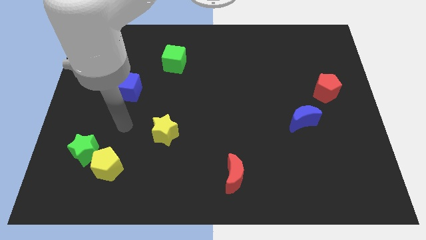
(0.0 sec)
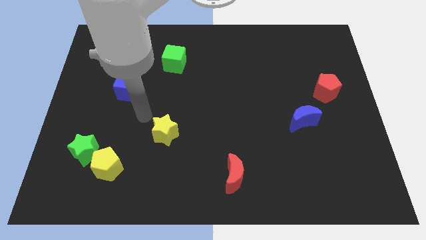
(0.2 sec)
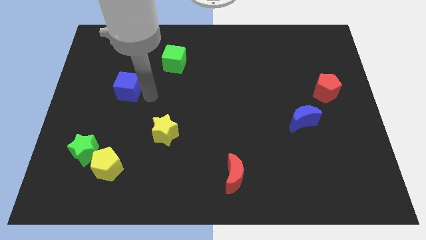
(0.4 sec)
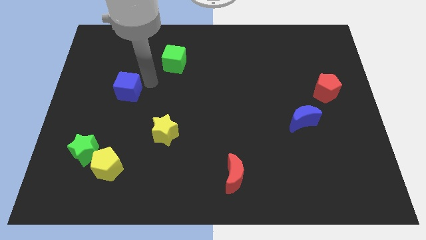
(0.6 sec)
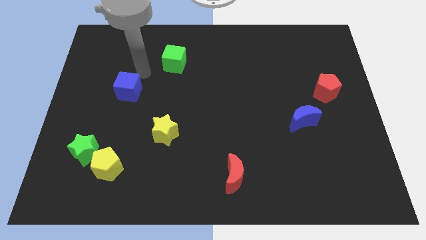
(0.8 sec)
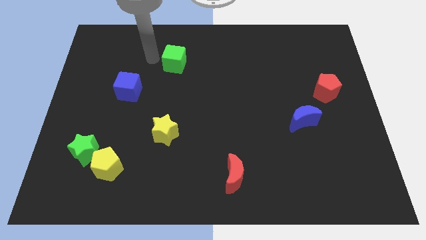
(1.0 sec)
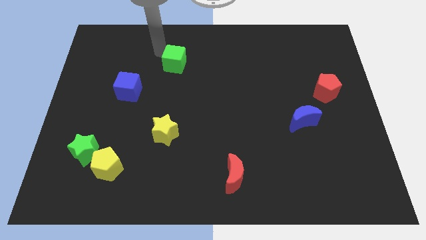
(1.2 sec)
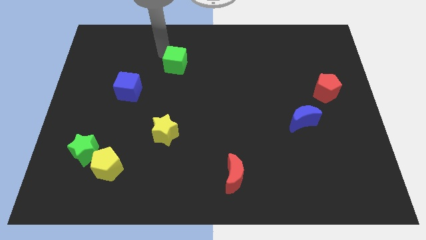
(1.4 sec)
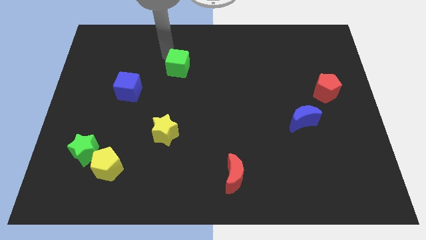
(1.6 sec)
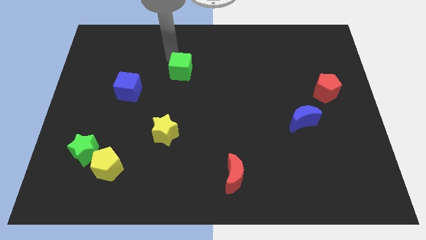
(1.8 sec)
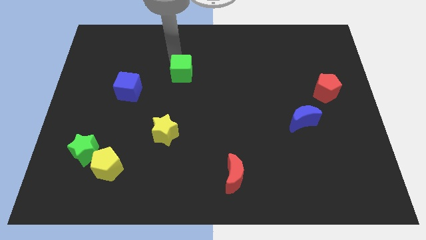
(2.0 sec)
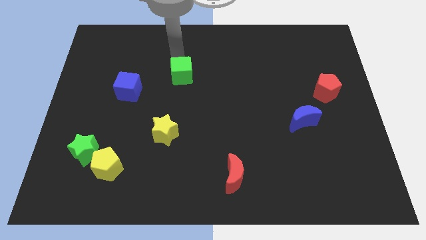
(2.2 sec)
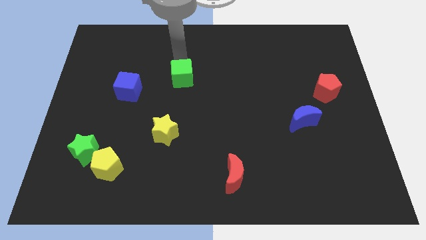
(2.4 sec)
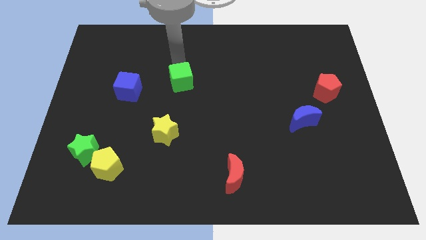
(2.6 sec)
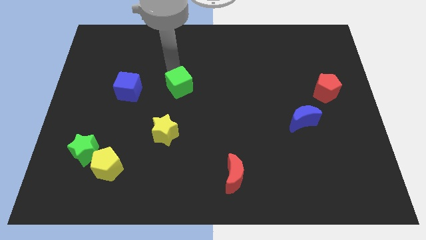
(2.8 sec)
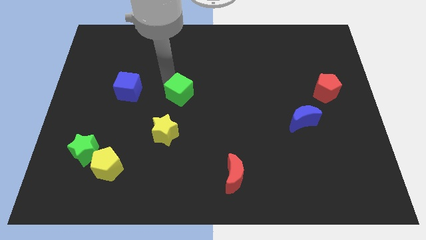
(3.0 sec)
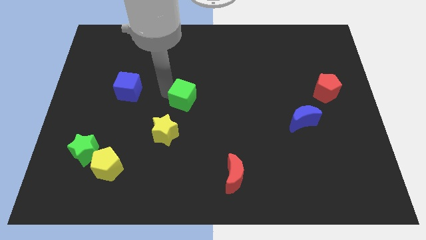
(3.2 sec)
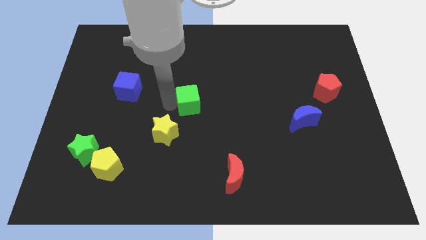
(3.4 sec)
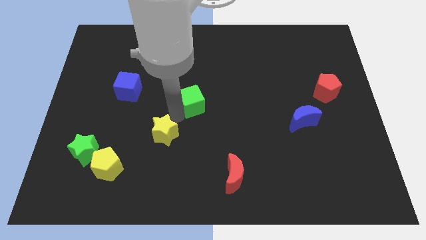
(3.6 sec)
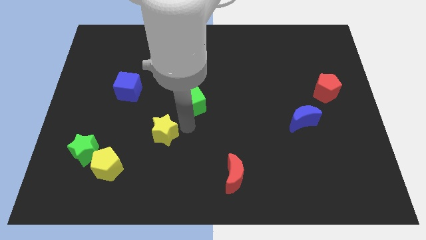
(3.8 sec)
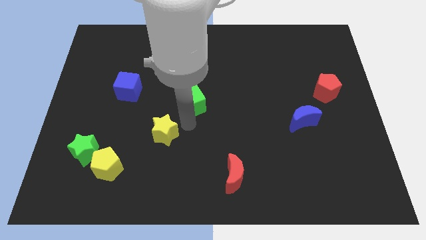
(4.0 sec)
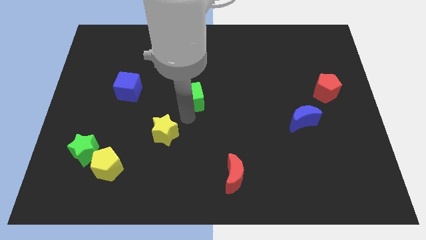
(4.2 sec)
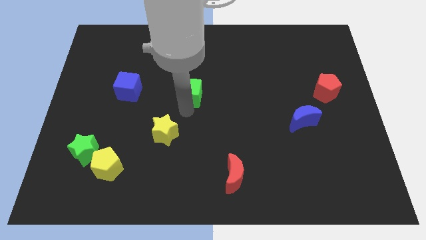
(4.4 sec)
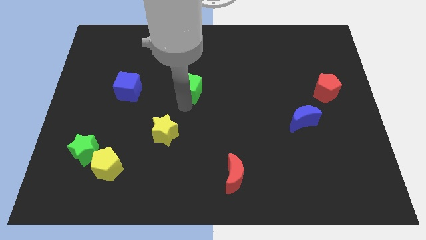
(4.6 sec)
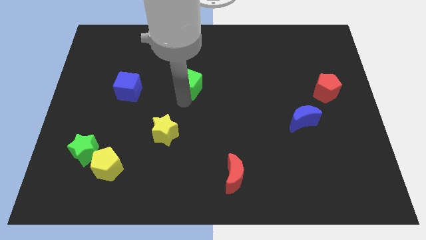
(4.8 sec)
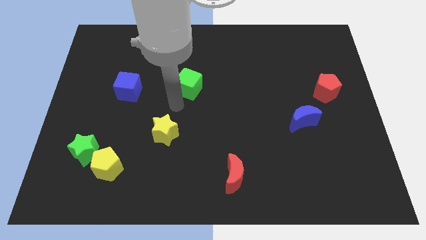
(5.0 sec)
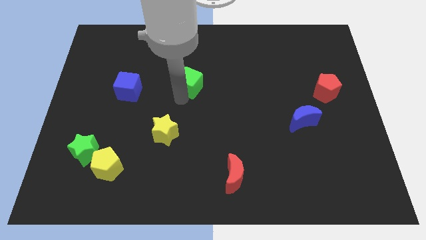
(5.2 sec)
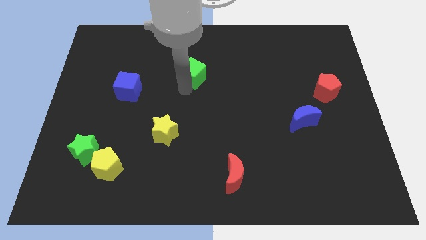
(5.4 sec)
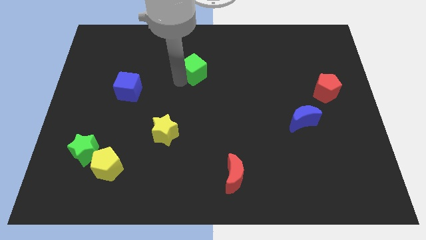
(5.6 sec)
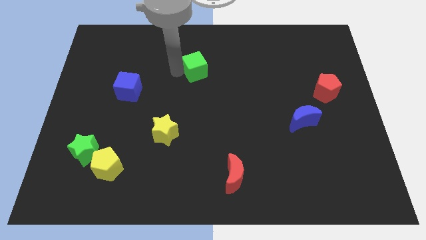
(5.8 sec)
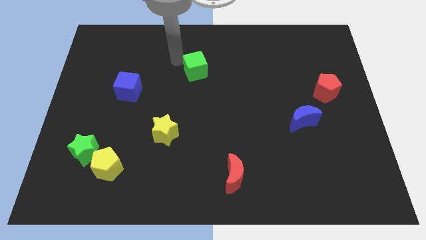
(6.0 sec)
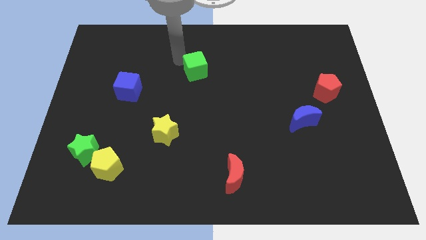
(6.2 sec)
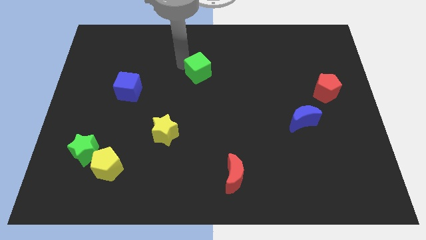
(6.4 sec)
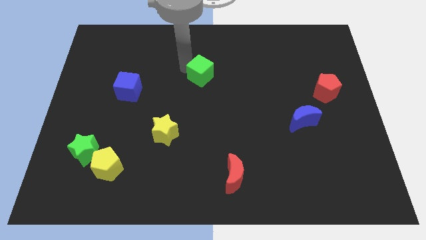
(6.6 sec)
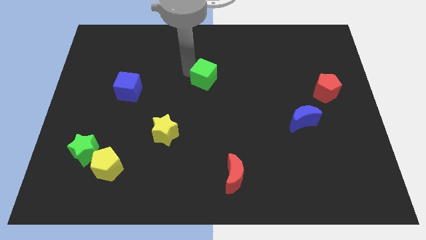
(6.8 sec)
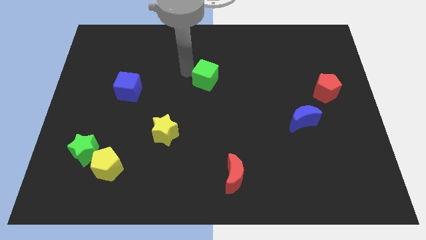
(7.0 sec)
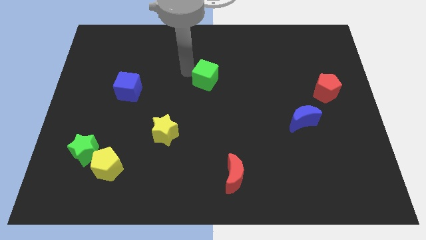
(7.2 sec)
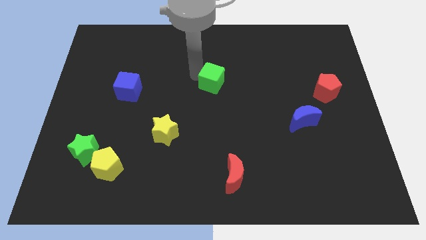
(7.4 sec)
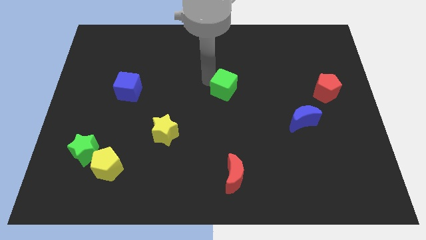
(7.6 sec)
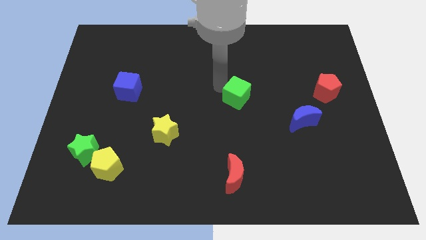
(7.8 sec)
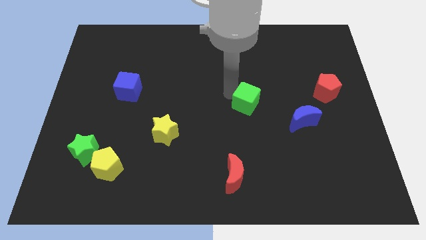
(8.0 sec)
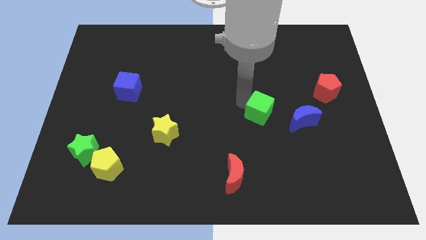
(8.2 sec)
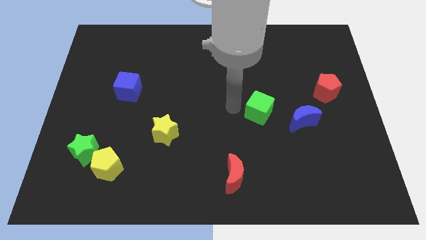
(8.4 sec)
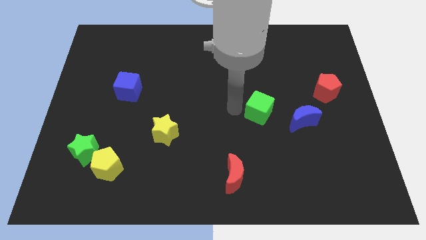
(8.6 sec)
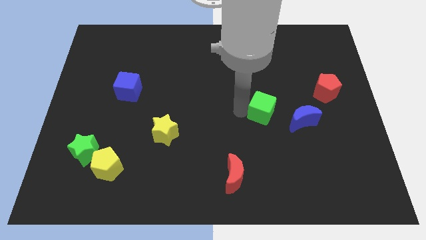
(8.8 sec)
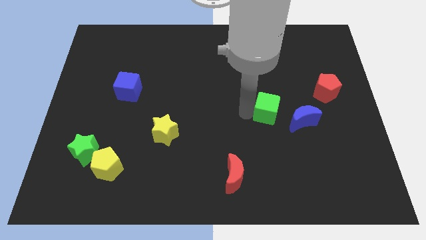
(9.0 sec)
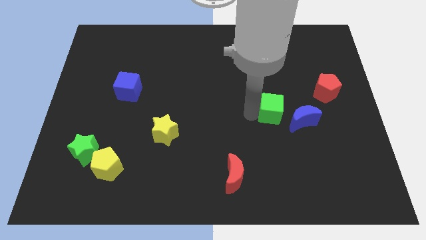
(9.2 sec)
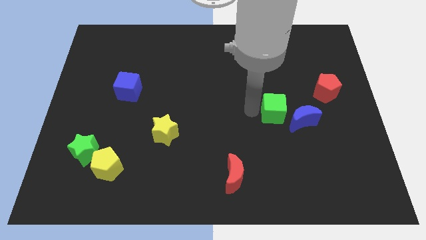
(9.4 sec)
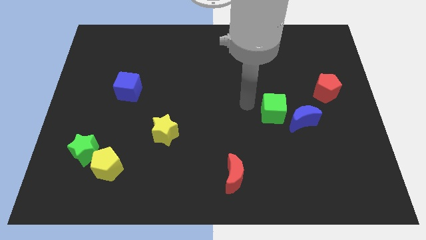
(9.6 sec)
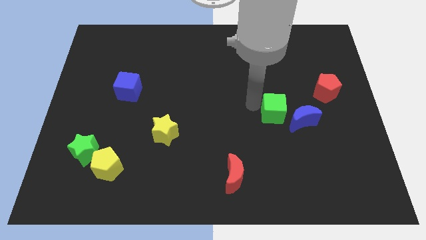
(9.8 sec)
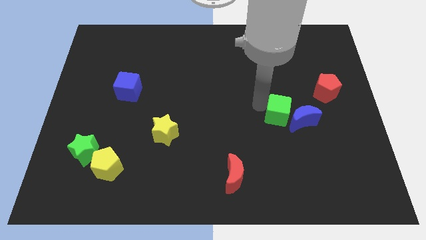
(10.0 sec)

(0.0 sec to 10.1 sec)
push the green cube close to the blue moon

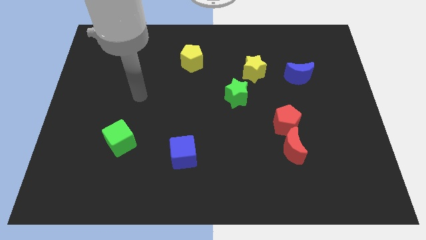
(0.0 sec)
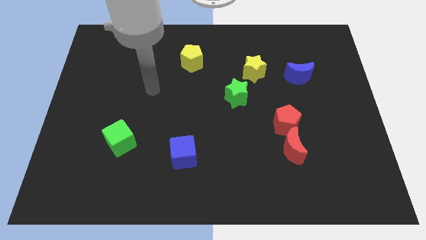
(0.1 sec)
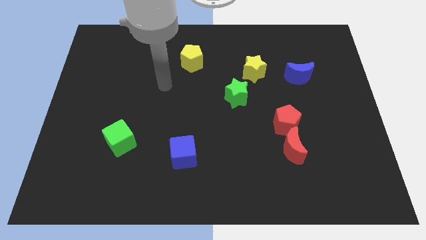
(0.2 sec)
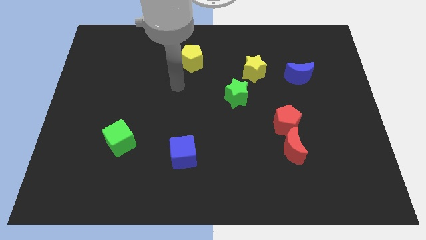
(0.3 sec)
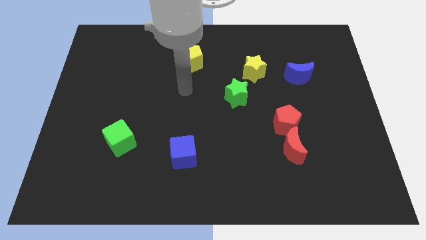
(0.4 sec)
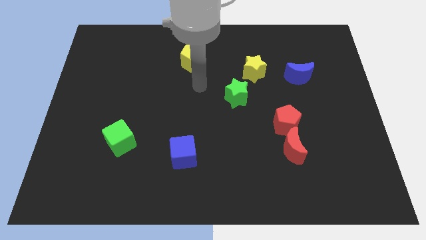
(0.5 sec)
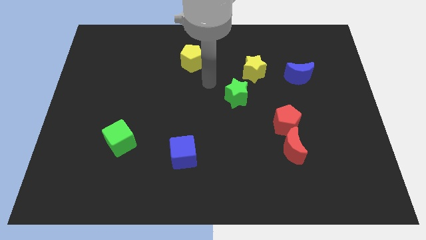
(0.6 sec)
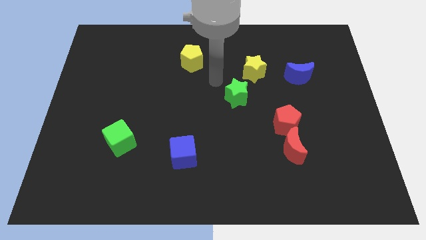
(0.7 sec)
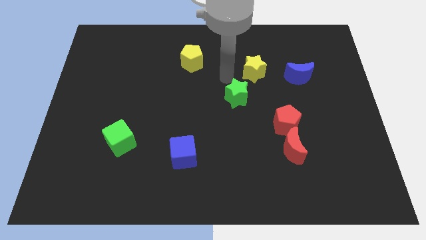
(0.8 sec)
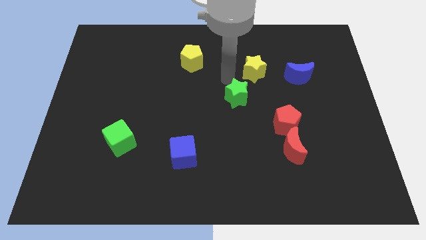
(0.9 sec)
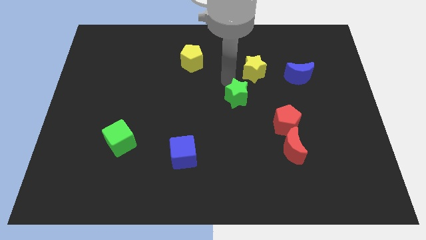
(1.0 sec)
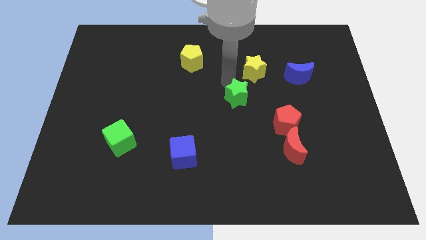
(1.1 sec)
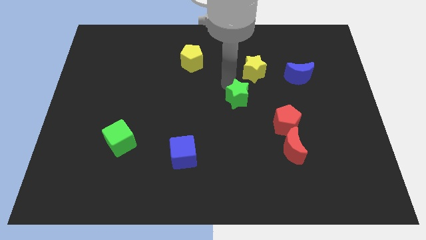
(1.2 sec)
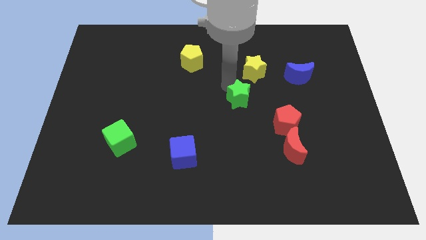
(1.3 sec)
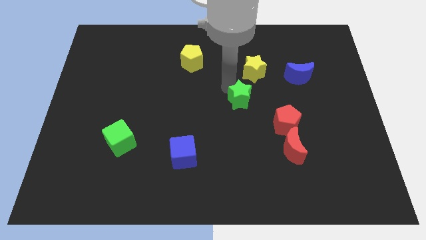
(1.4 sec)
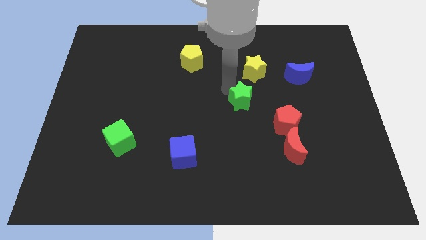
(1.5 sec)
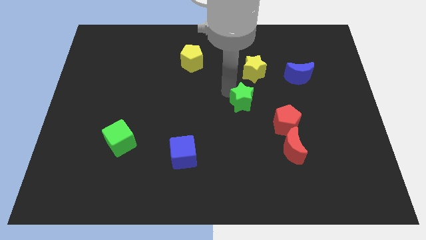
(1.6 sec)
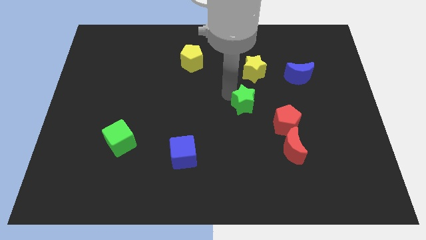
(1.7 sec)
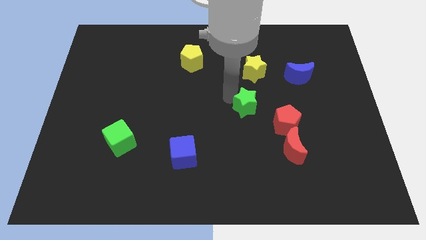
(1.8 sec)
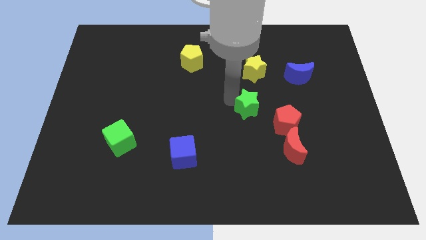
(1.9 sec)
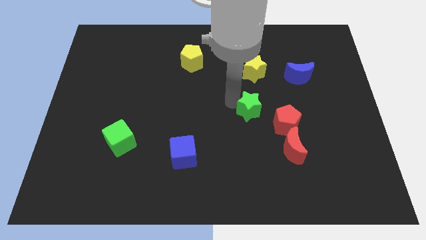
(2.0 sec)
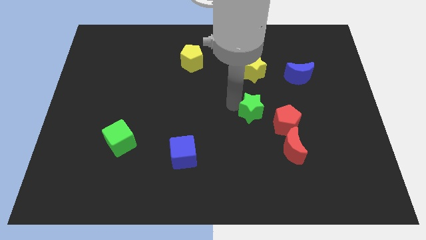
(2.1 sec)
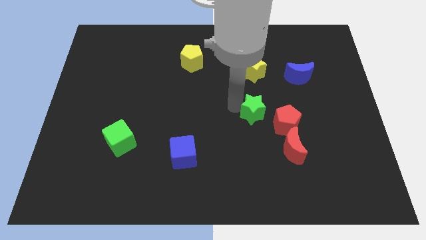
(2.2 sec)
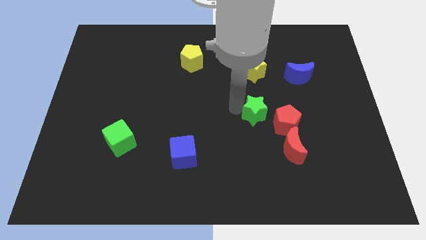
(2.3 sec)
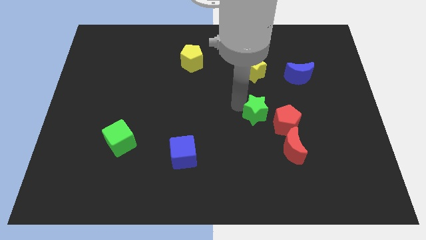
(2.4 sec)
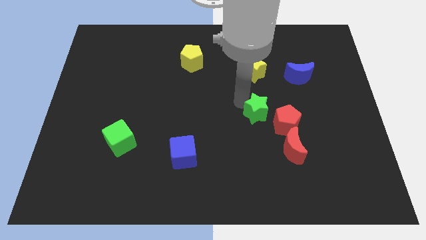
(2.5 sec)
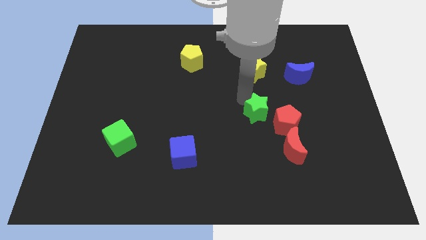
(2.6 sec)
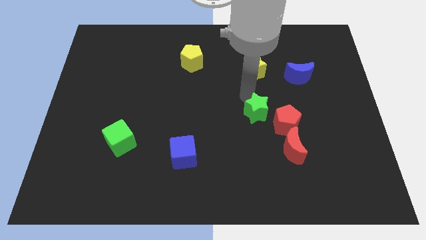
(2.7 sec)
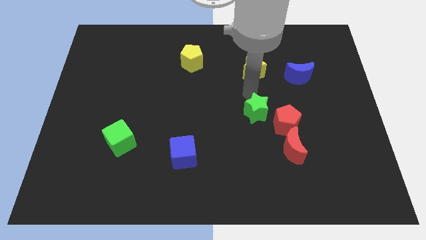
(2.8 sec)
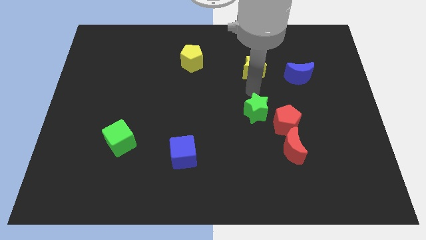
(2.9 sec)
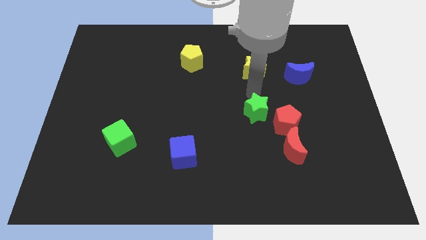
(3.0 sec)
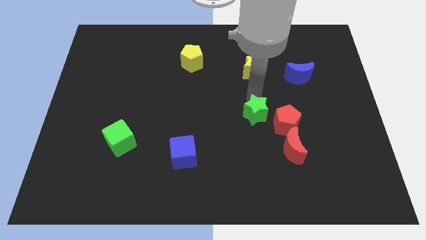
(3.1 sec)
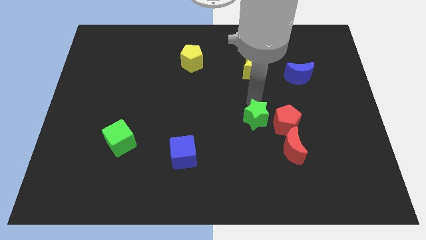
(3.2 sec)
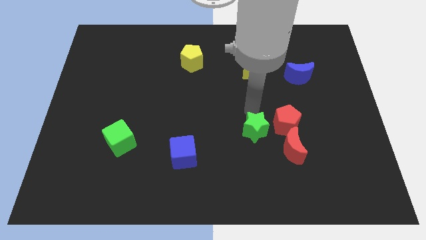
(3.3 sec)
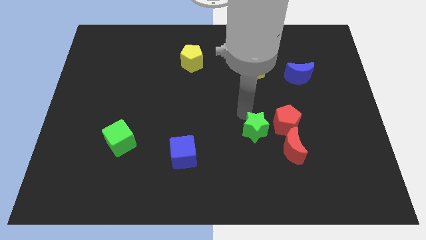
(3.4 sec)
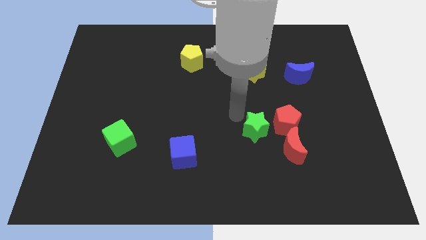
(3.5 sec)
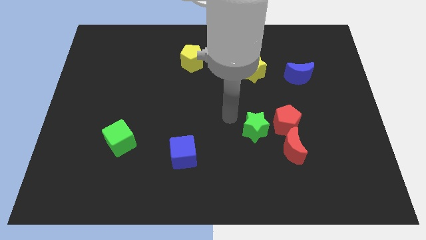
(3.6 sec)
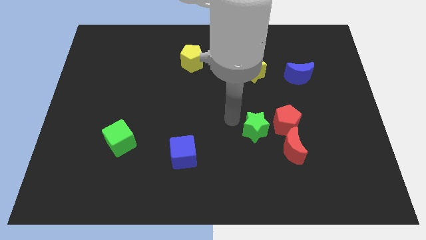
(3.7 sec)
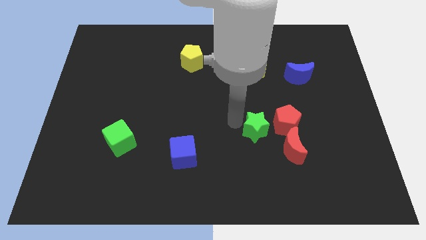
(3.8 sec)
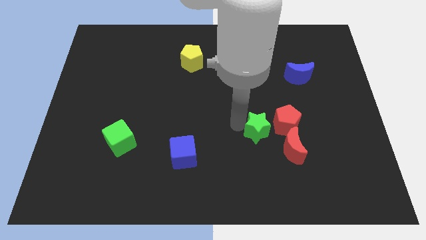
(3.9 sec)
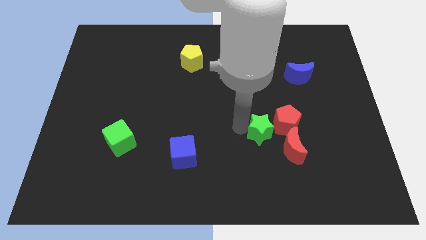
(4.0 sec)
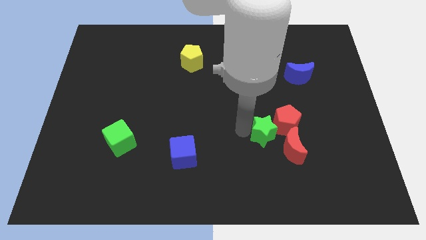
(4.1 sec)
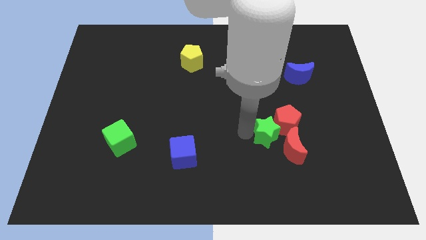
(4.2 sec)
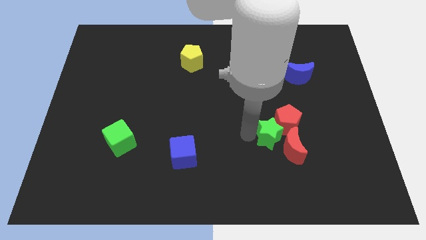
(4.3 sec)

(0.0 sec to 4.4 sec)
move the green star close to the red moon
